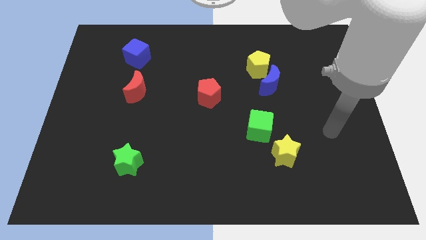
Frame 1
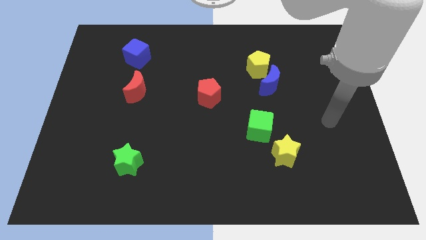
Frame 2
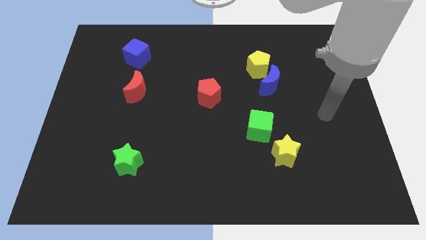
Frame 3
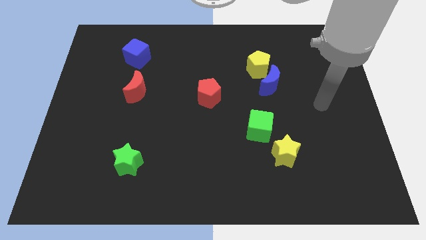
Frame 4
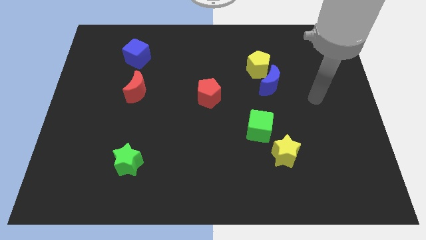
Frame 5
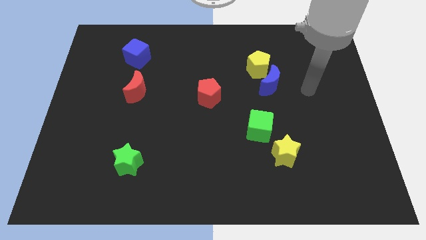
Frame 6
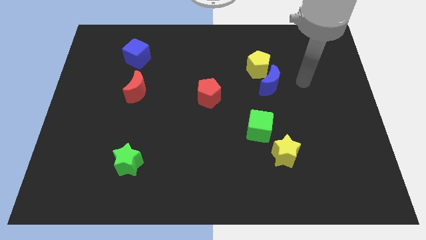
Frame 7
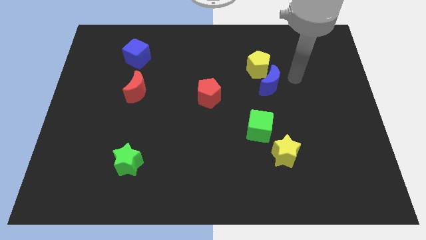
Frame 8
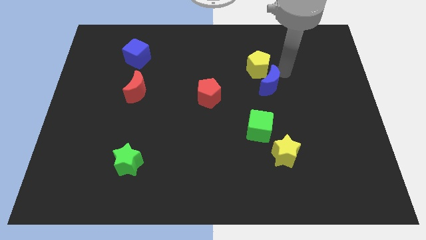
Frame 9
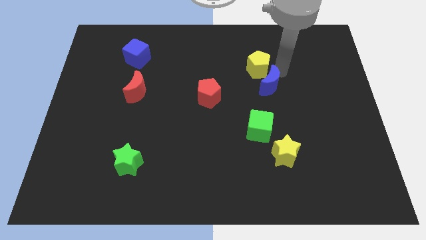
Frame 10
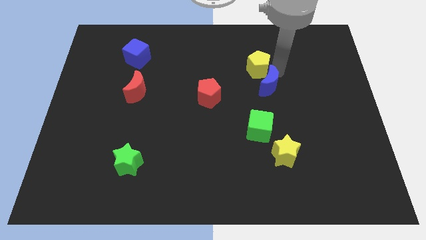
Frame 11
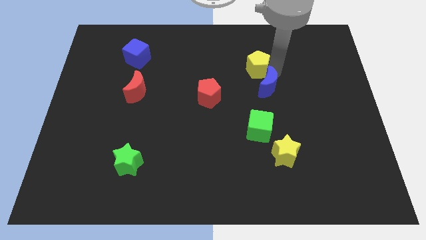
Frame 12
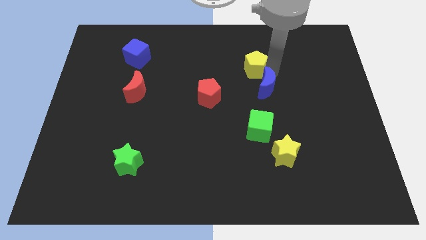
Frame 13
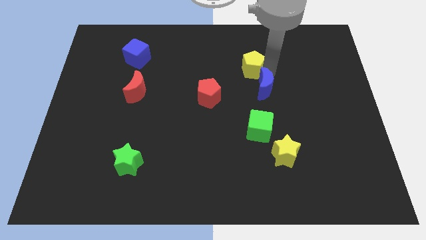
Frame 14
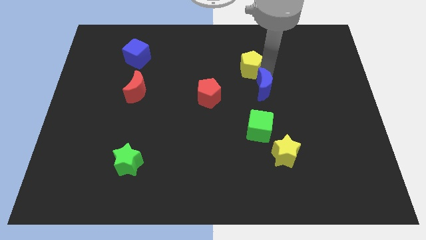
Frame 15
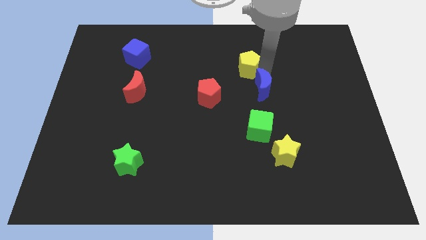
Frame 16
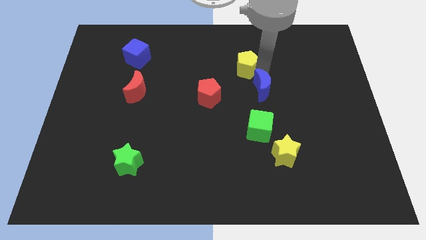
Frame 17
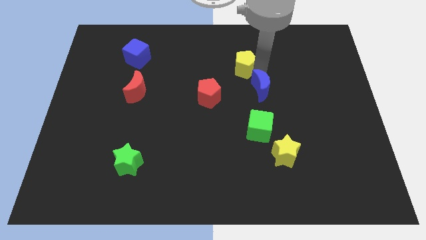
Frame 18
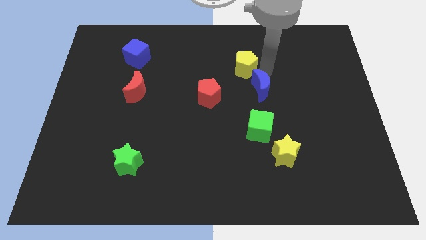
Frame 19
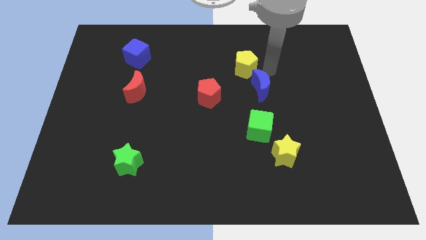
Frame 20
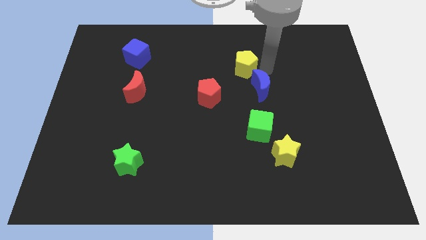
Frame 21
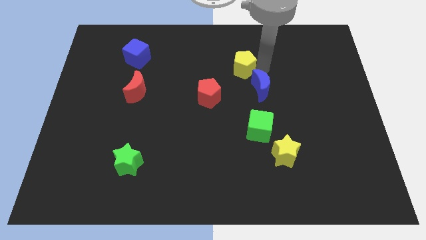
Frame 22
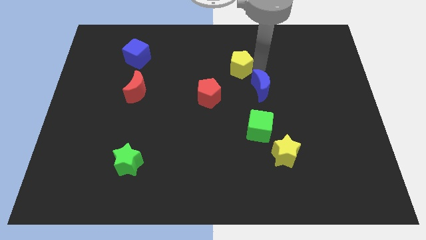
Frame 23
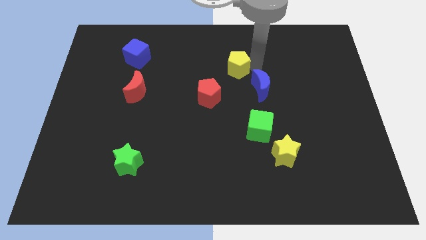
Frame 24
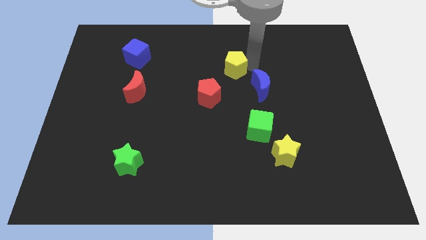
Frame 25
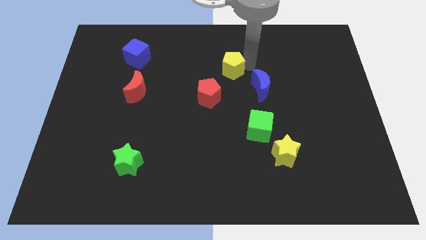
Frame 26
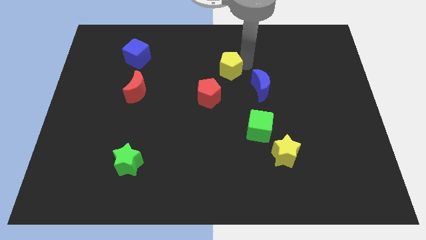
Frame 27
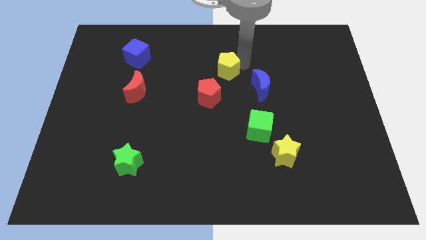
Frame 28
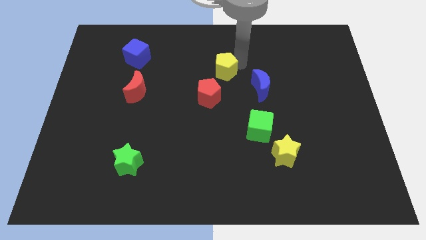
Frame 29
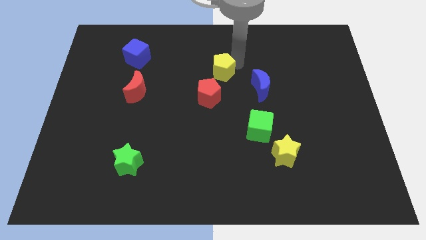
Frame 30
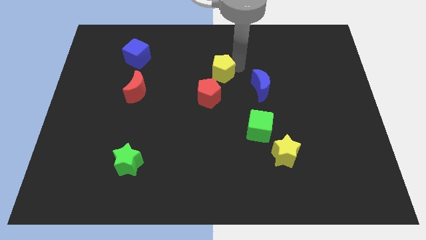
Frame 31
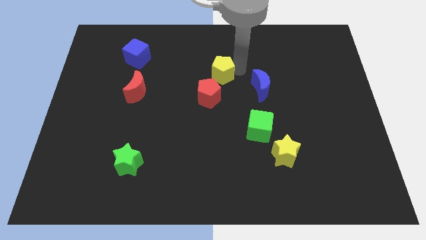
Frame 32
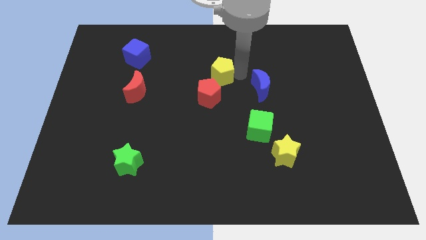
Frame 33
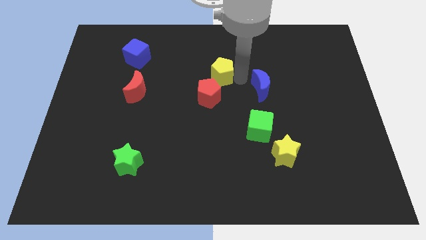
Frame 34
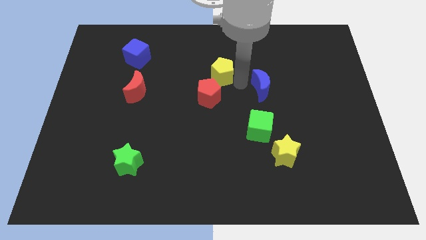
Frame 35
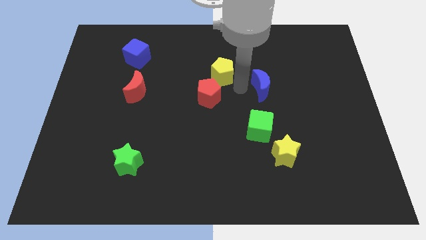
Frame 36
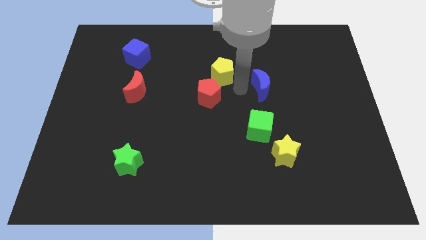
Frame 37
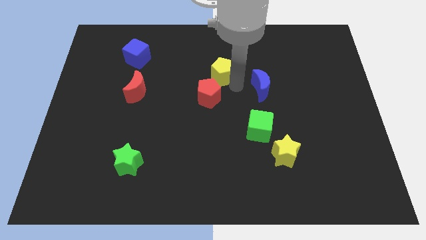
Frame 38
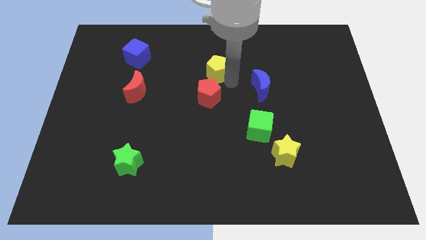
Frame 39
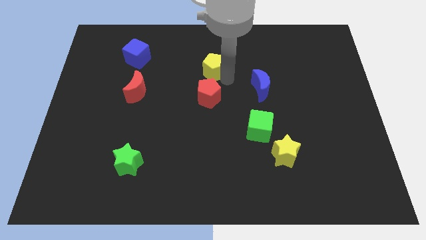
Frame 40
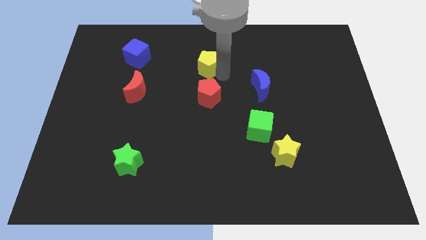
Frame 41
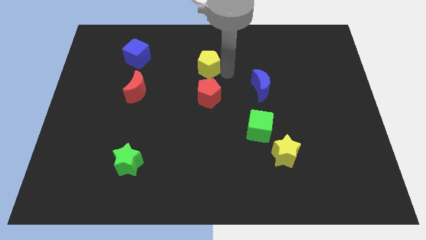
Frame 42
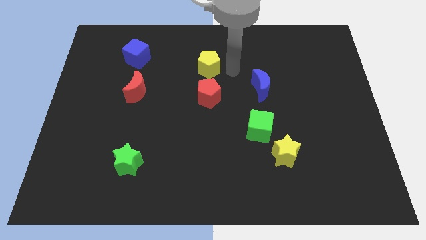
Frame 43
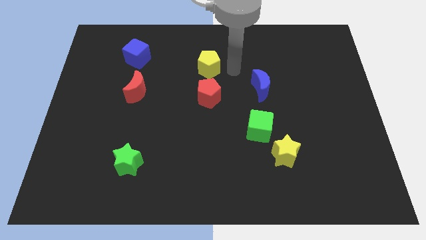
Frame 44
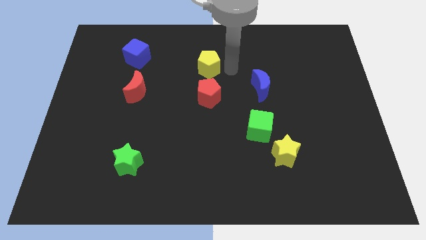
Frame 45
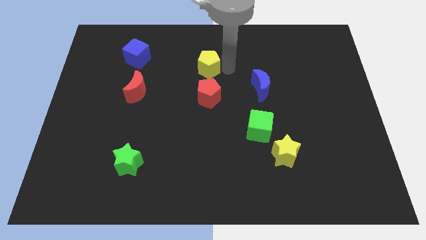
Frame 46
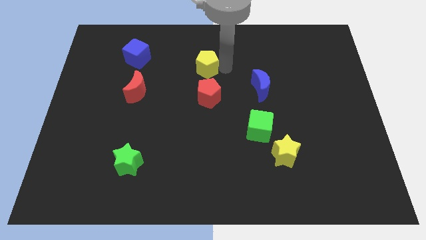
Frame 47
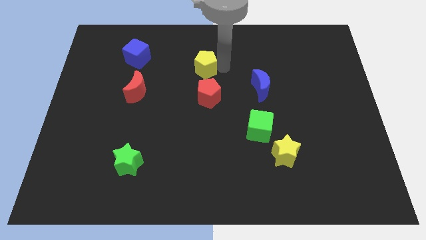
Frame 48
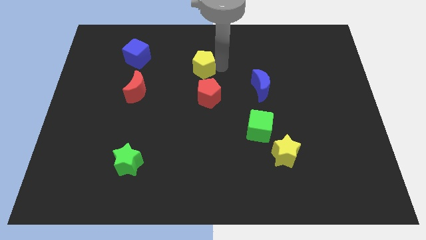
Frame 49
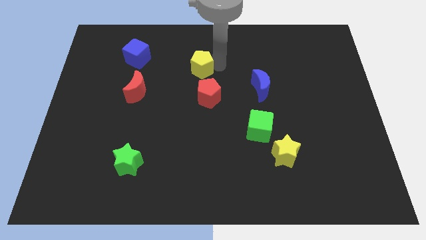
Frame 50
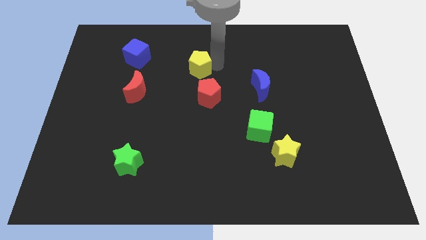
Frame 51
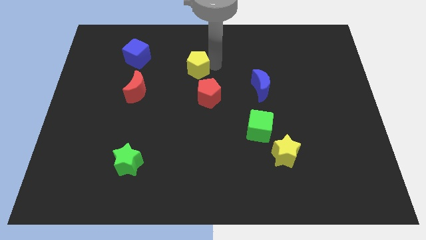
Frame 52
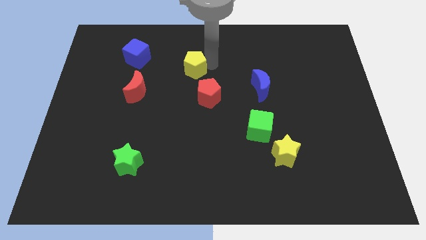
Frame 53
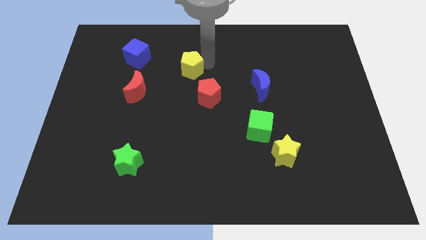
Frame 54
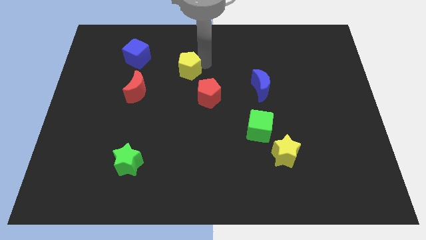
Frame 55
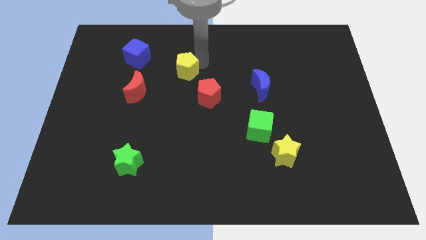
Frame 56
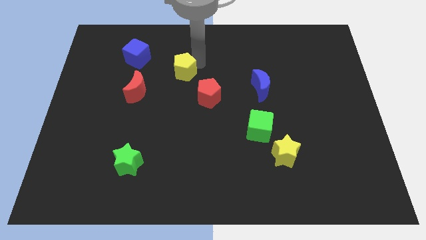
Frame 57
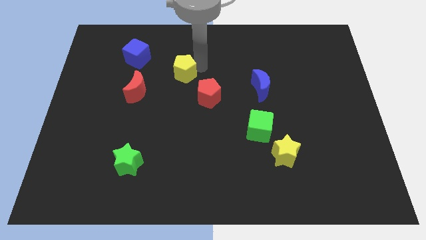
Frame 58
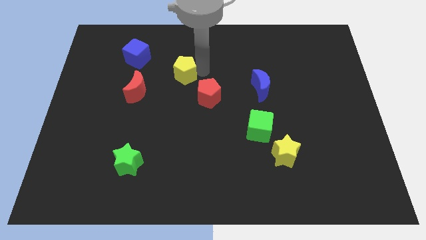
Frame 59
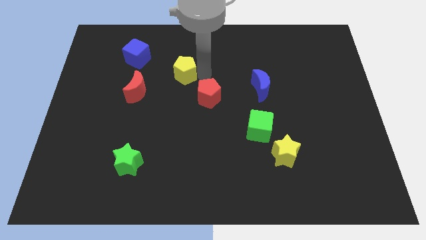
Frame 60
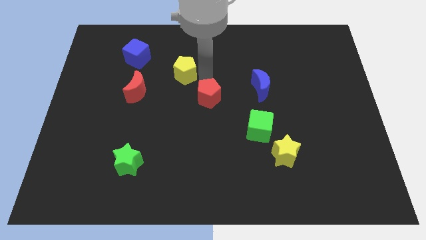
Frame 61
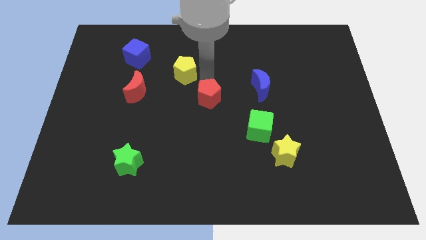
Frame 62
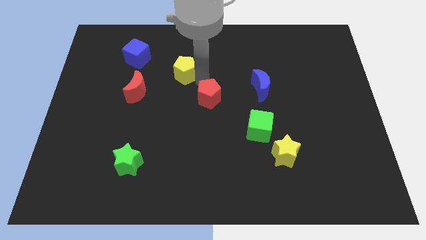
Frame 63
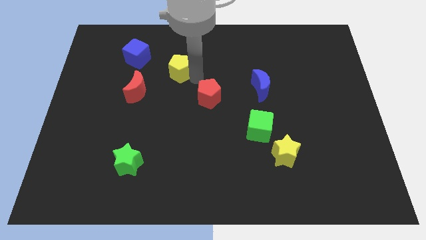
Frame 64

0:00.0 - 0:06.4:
move the yellow pentagon to the left

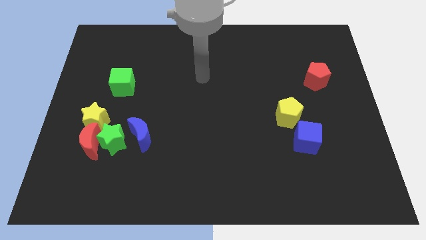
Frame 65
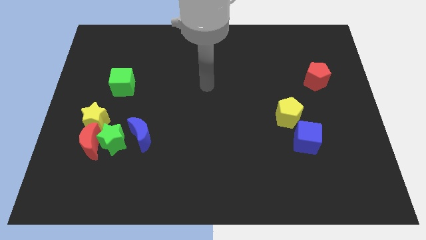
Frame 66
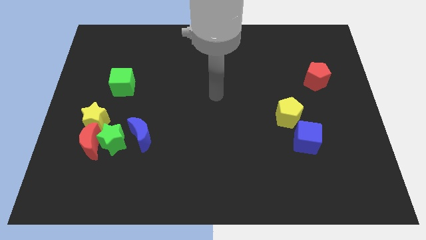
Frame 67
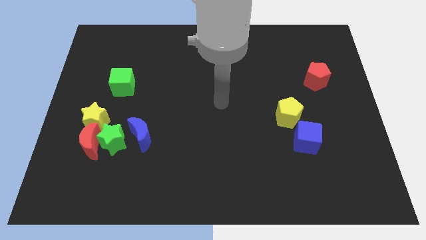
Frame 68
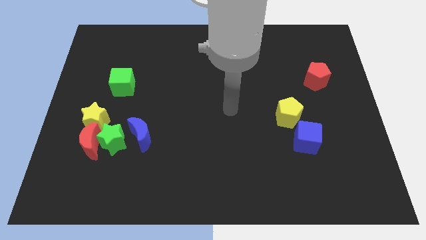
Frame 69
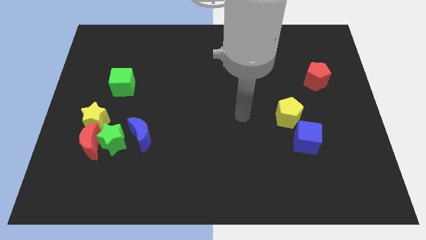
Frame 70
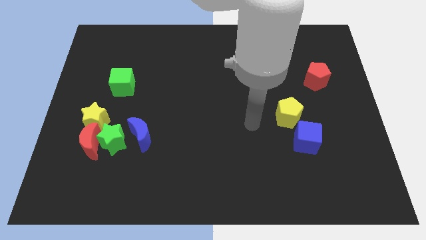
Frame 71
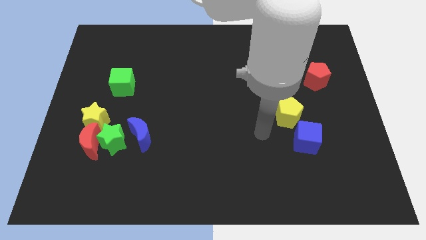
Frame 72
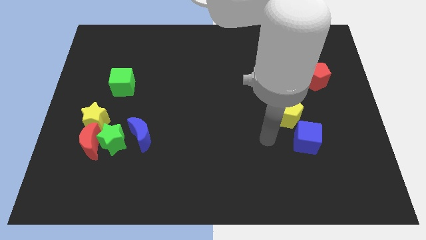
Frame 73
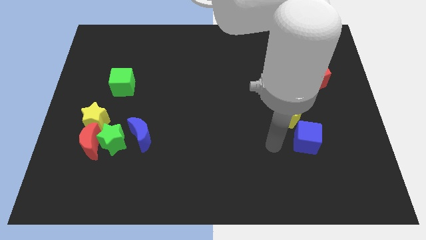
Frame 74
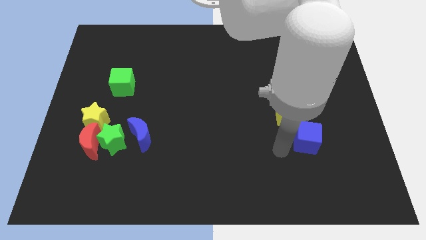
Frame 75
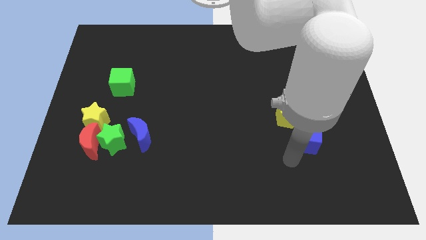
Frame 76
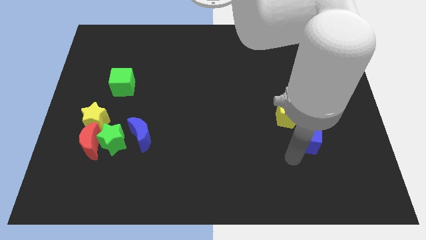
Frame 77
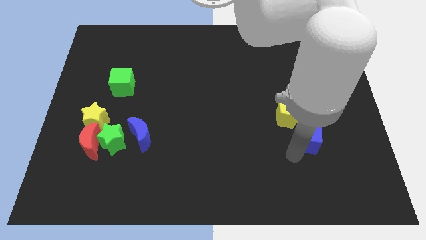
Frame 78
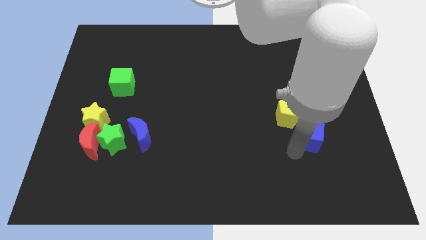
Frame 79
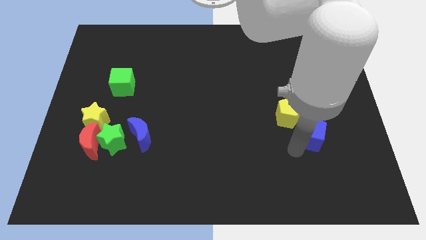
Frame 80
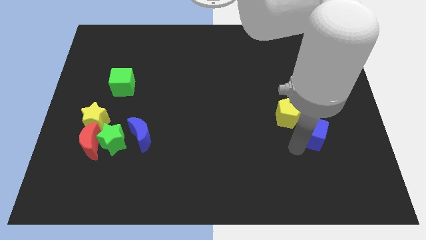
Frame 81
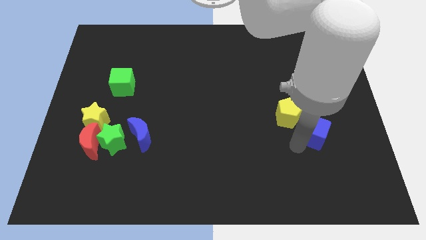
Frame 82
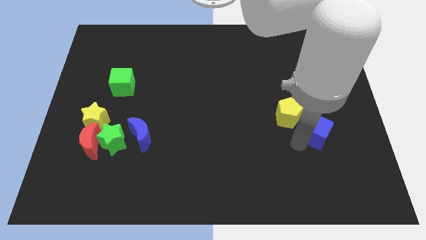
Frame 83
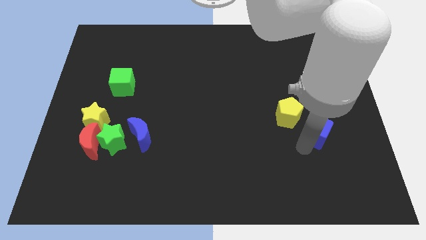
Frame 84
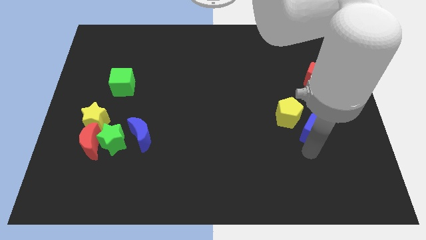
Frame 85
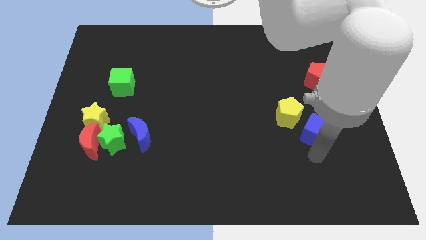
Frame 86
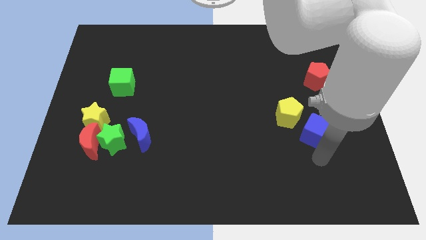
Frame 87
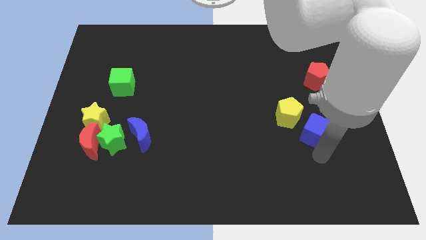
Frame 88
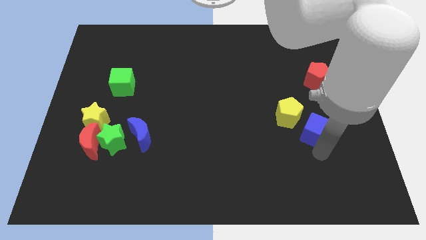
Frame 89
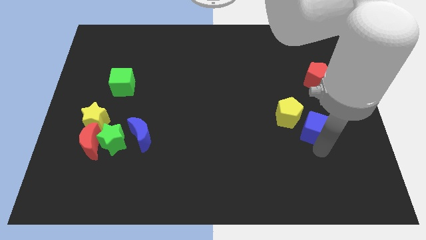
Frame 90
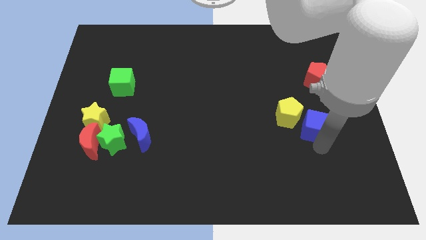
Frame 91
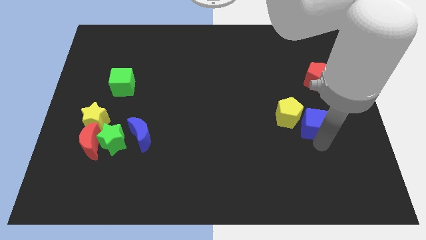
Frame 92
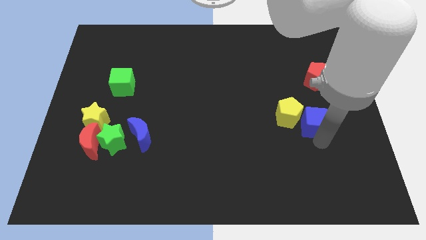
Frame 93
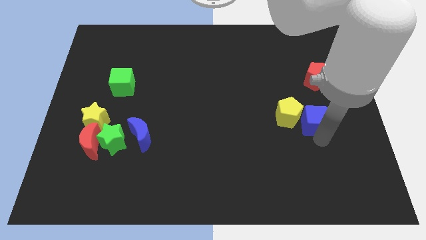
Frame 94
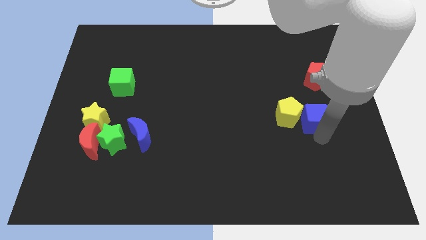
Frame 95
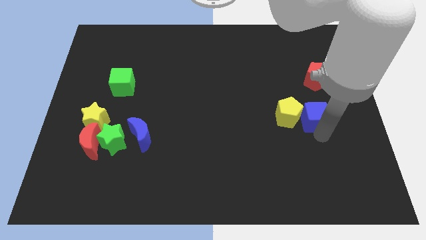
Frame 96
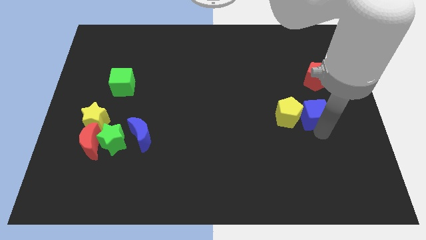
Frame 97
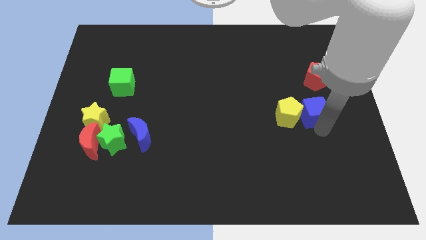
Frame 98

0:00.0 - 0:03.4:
slightly slide the blue cube up
